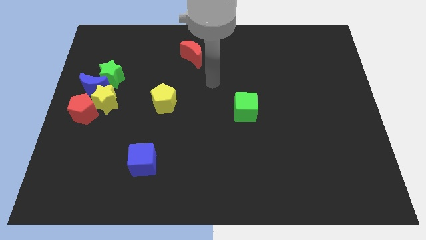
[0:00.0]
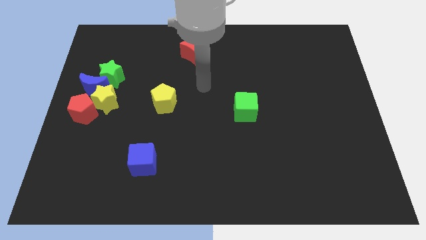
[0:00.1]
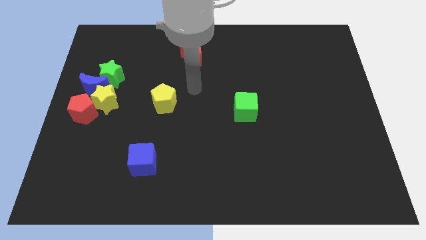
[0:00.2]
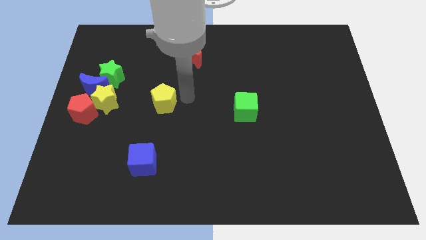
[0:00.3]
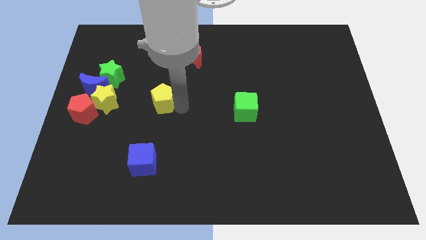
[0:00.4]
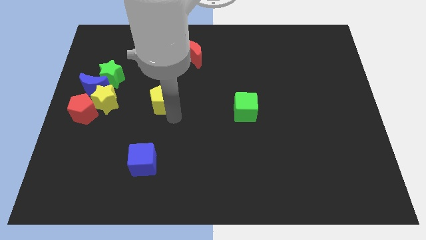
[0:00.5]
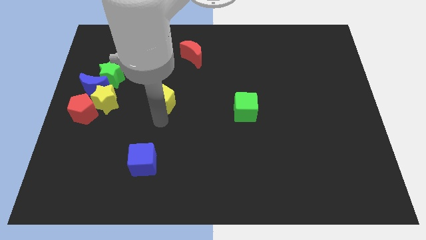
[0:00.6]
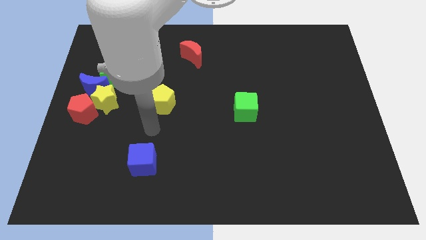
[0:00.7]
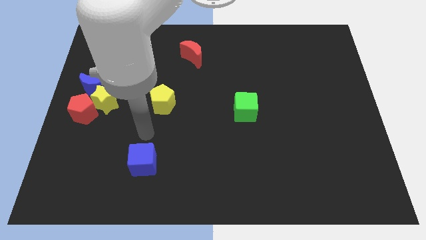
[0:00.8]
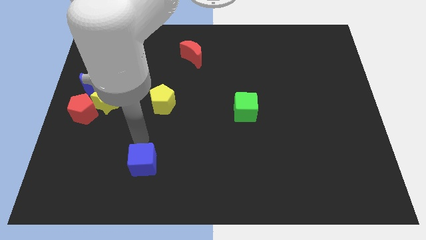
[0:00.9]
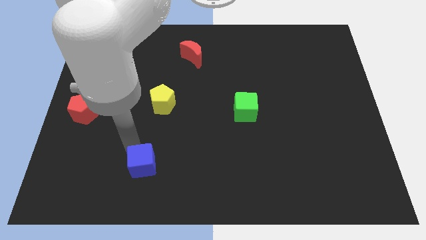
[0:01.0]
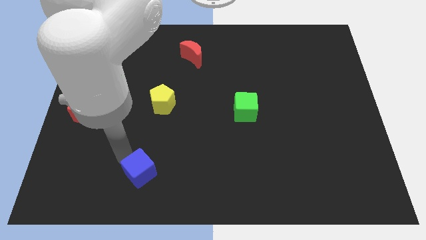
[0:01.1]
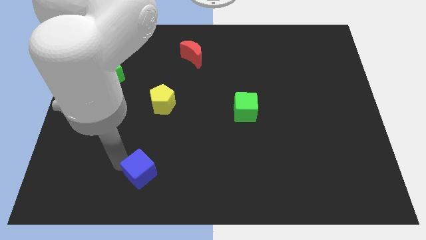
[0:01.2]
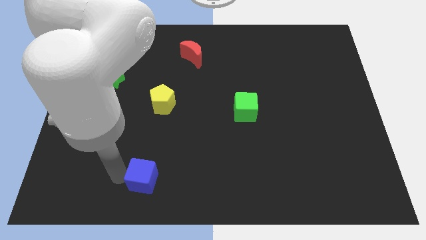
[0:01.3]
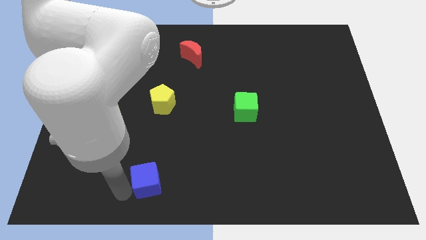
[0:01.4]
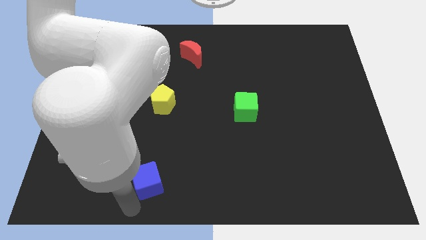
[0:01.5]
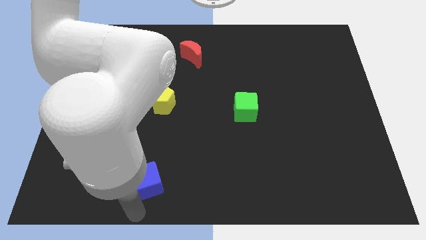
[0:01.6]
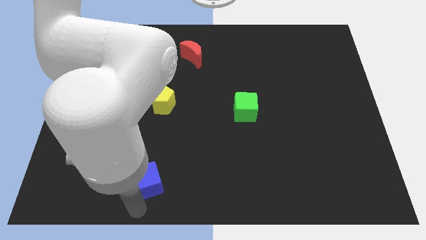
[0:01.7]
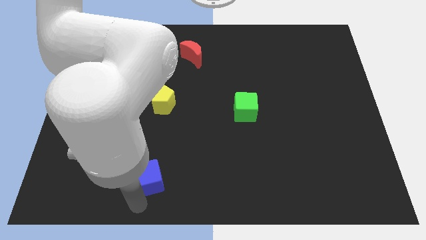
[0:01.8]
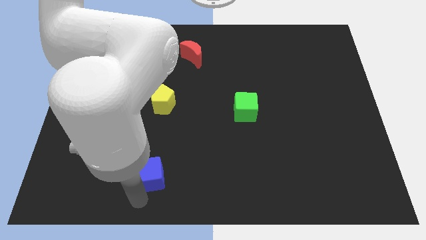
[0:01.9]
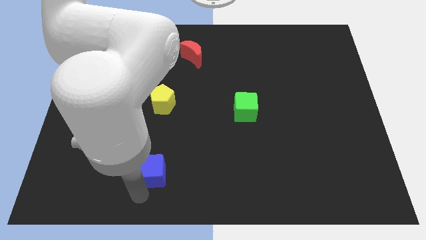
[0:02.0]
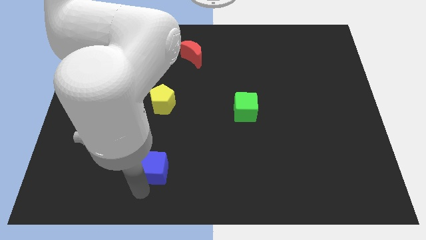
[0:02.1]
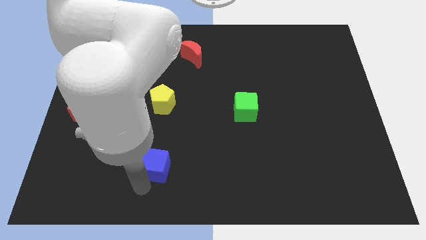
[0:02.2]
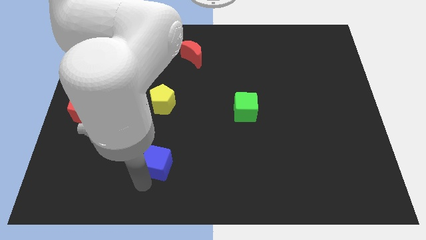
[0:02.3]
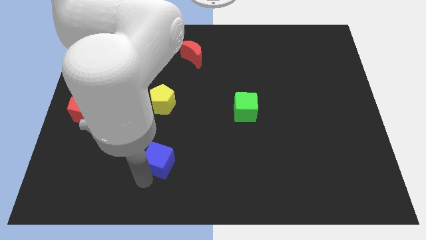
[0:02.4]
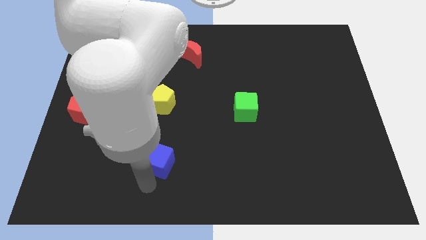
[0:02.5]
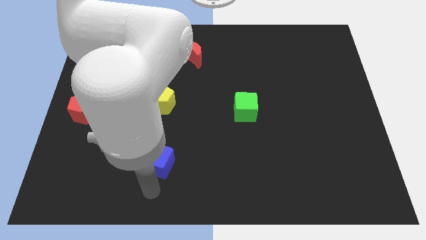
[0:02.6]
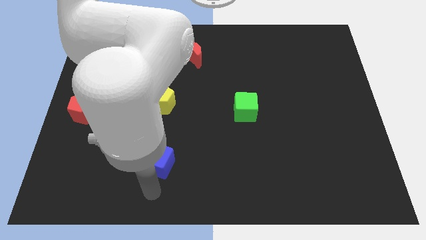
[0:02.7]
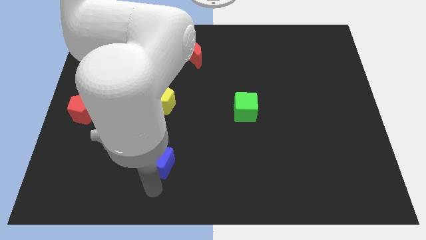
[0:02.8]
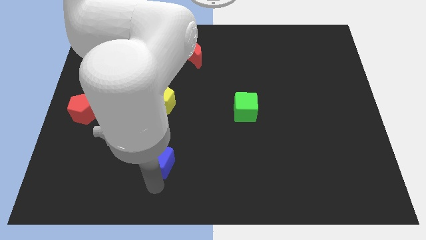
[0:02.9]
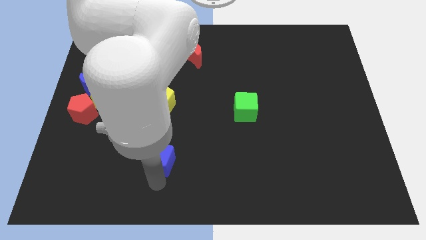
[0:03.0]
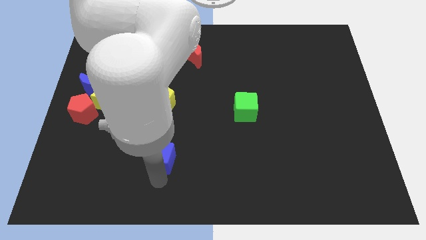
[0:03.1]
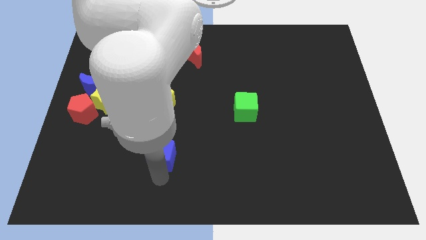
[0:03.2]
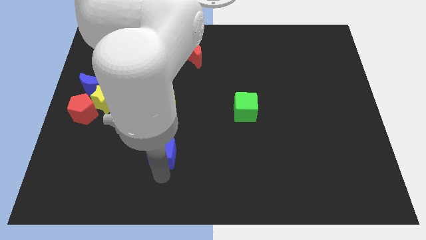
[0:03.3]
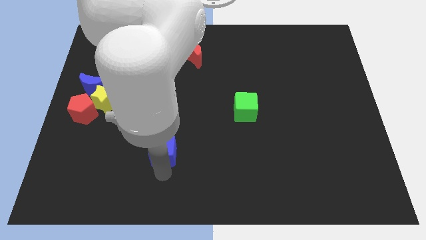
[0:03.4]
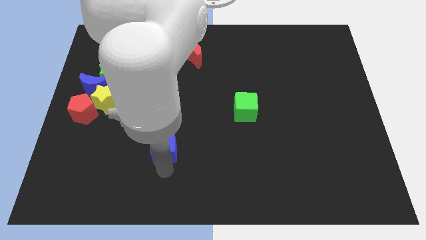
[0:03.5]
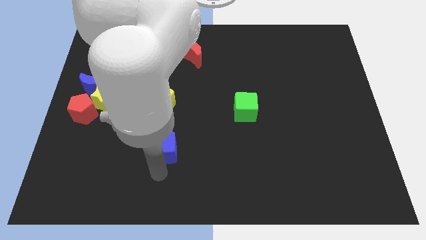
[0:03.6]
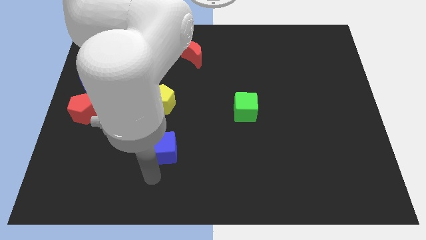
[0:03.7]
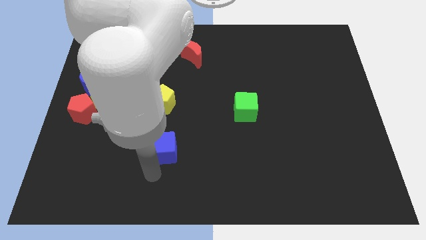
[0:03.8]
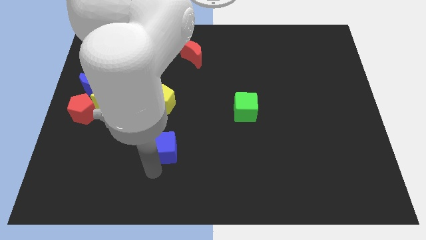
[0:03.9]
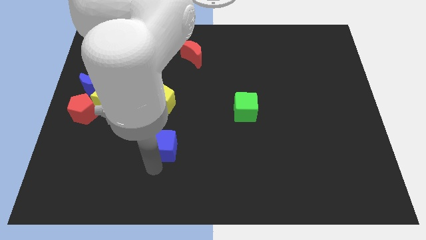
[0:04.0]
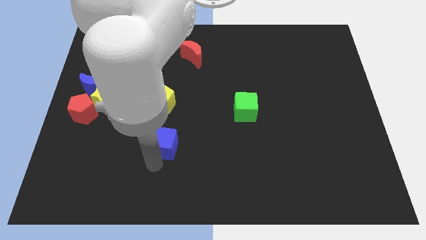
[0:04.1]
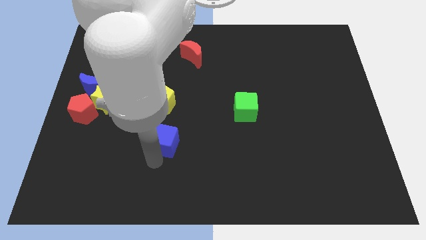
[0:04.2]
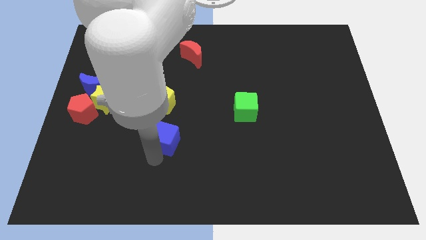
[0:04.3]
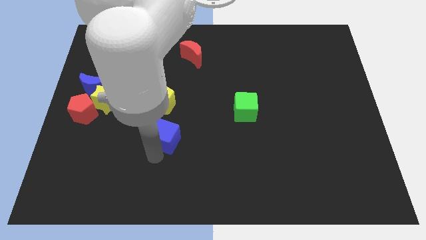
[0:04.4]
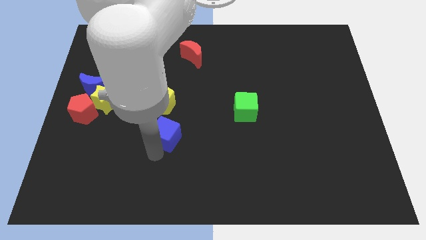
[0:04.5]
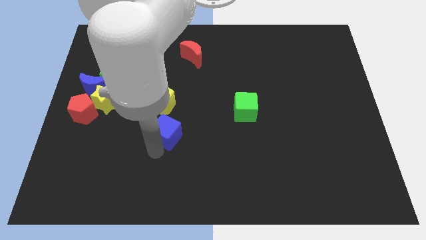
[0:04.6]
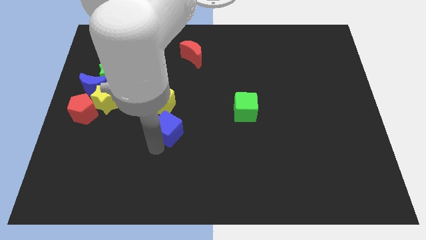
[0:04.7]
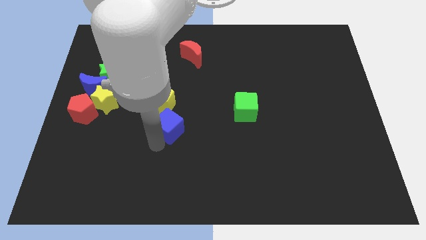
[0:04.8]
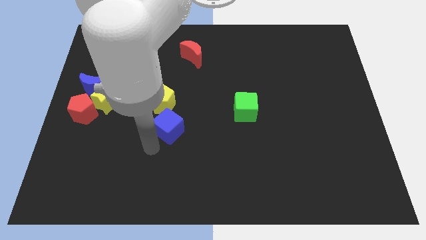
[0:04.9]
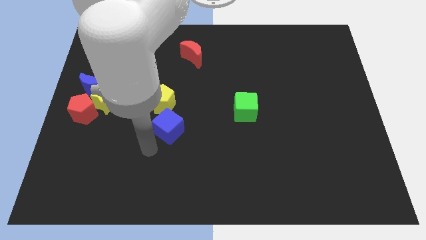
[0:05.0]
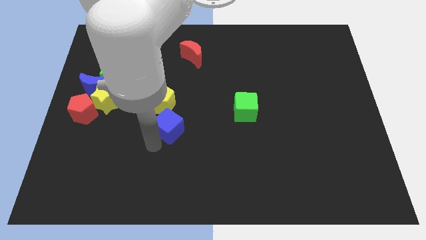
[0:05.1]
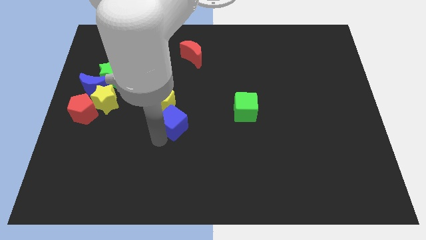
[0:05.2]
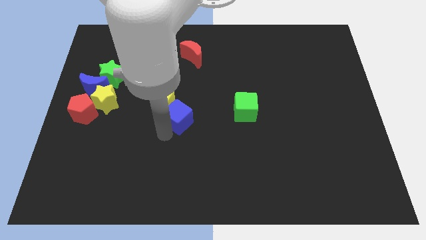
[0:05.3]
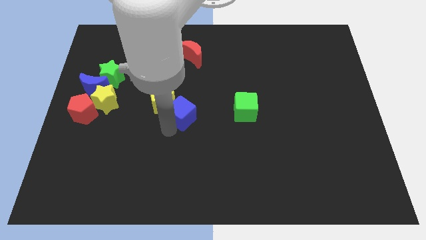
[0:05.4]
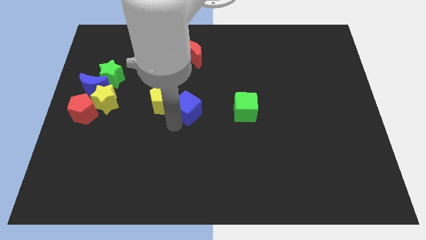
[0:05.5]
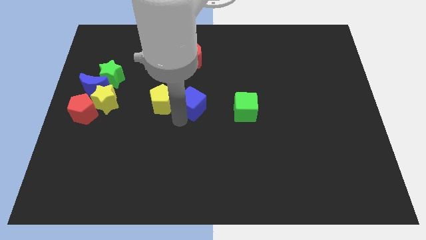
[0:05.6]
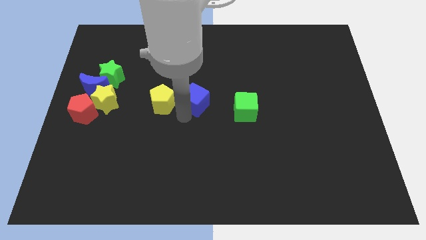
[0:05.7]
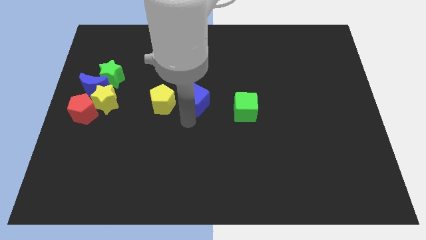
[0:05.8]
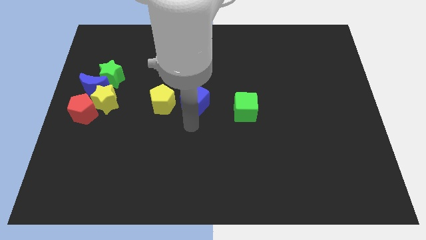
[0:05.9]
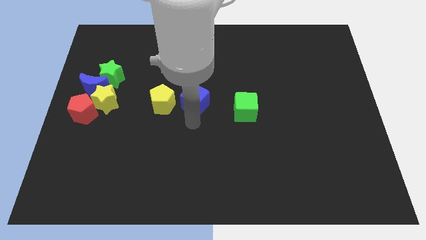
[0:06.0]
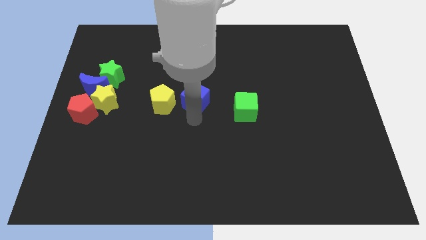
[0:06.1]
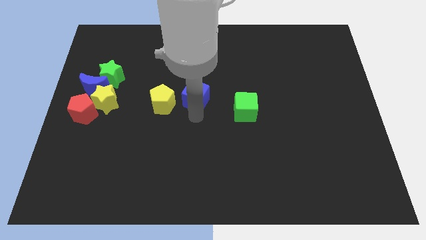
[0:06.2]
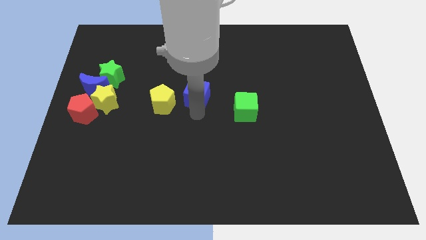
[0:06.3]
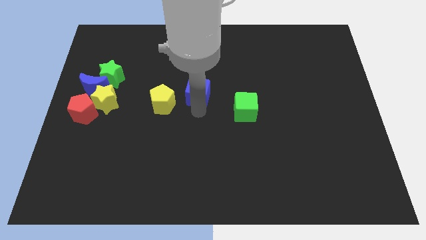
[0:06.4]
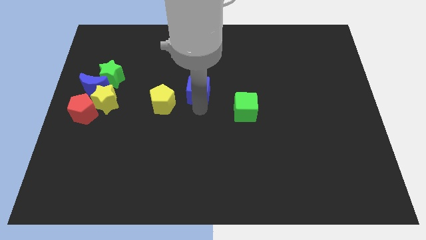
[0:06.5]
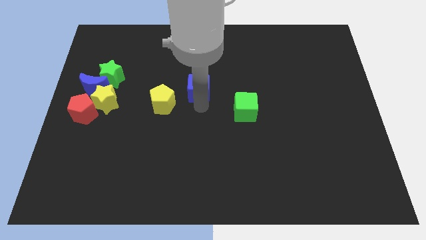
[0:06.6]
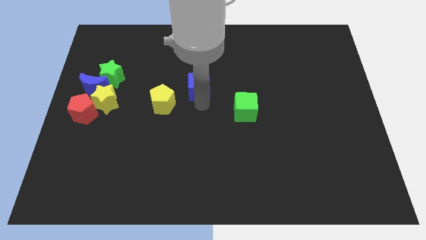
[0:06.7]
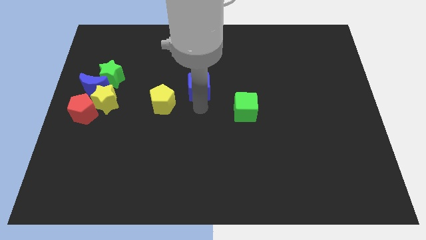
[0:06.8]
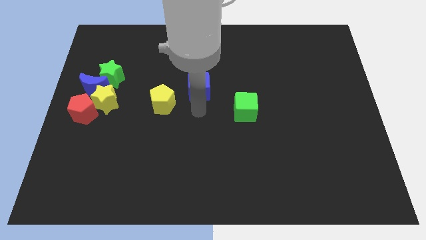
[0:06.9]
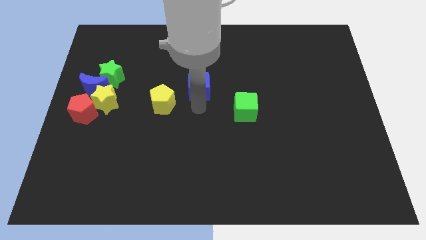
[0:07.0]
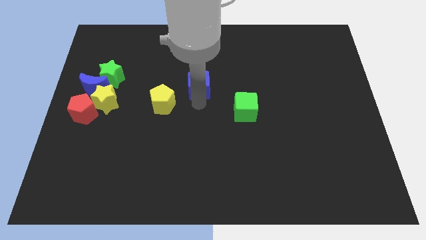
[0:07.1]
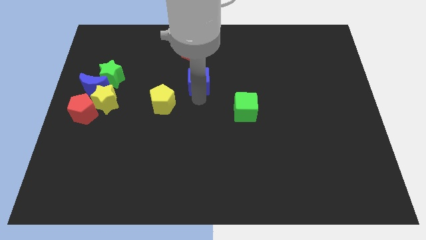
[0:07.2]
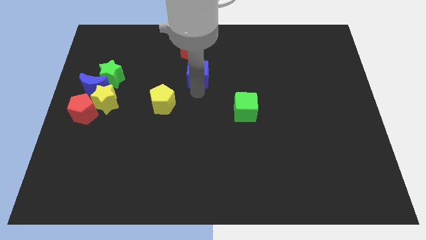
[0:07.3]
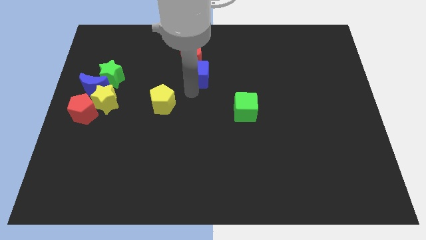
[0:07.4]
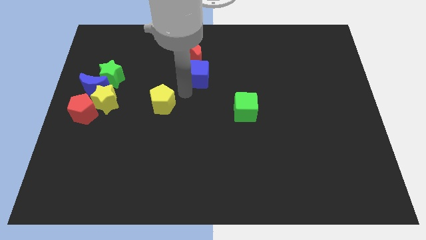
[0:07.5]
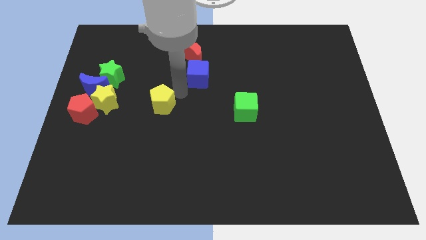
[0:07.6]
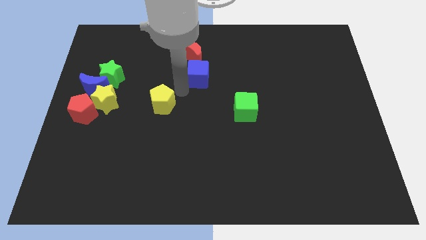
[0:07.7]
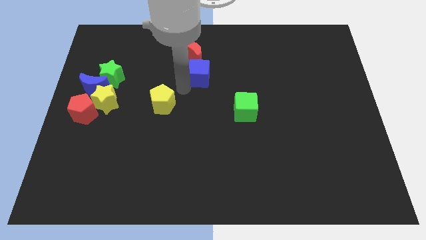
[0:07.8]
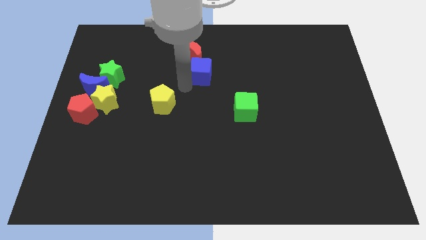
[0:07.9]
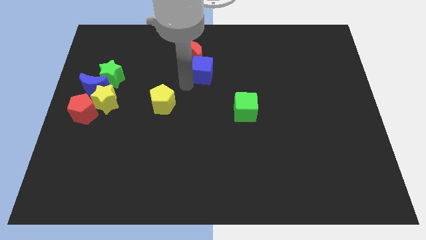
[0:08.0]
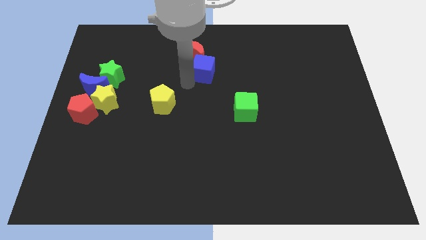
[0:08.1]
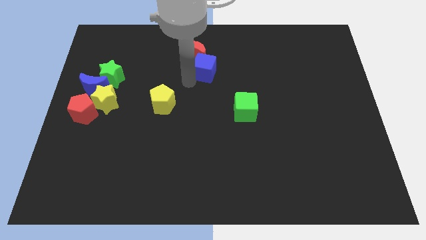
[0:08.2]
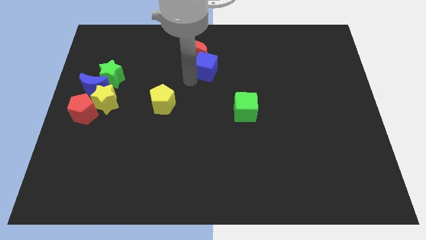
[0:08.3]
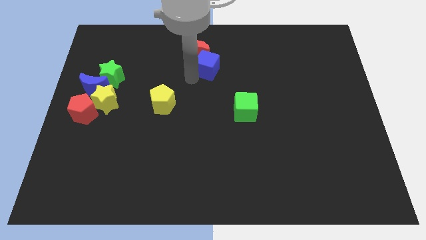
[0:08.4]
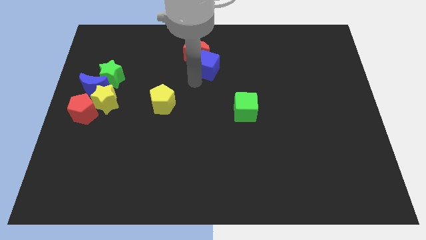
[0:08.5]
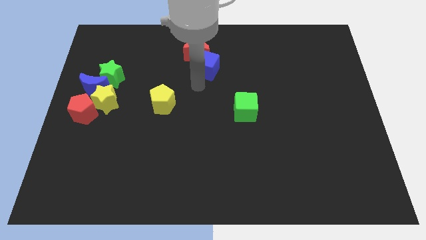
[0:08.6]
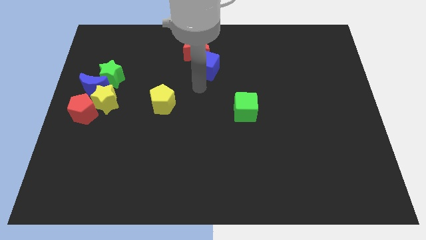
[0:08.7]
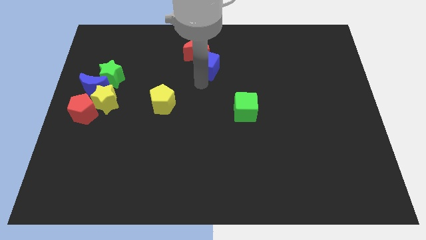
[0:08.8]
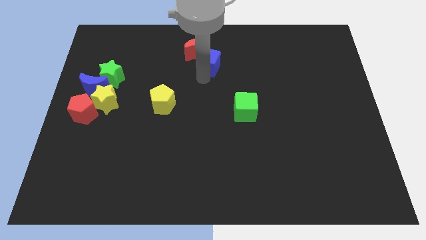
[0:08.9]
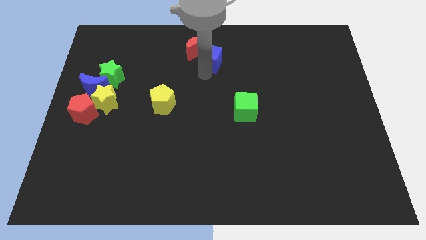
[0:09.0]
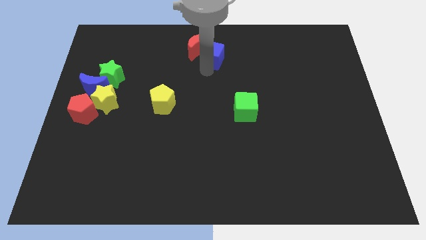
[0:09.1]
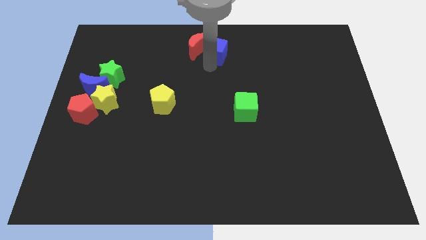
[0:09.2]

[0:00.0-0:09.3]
move the blue cube to the top side
